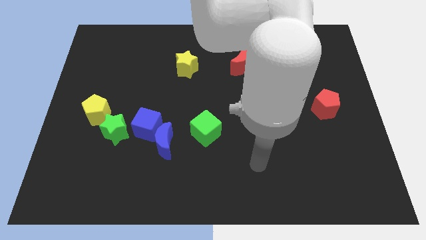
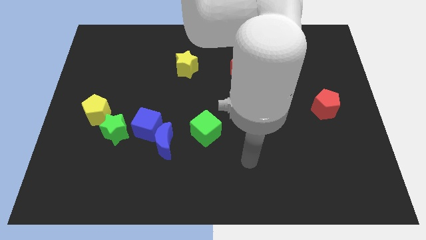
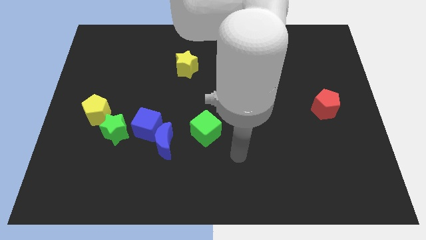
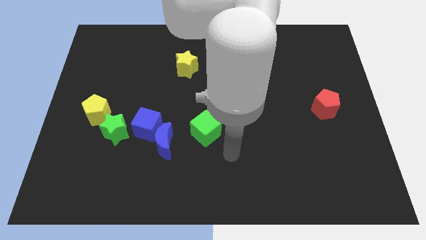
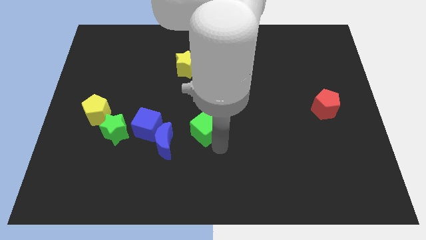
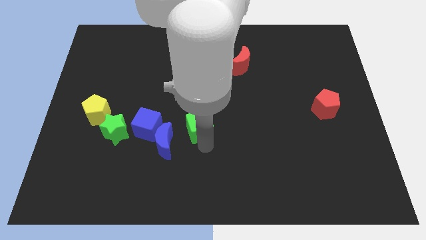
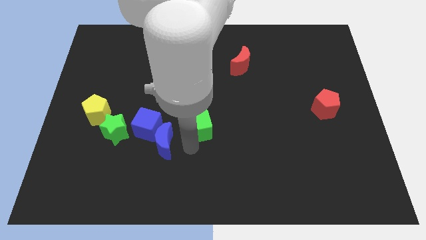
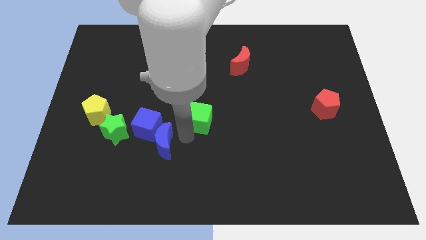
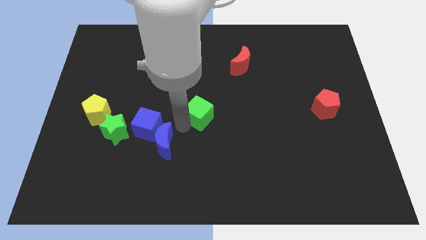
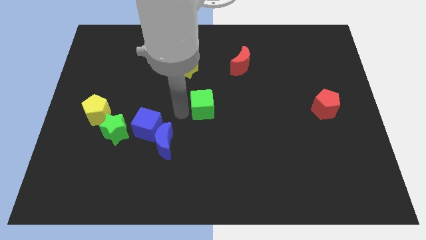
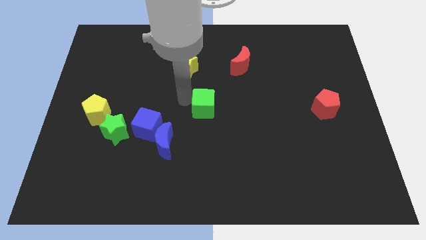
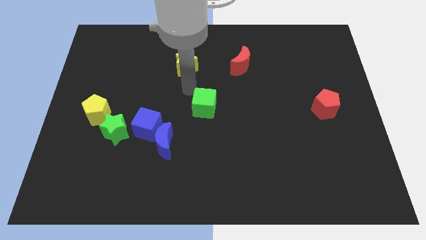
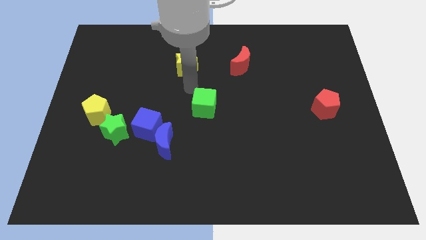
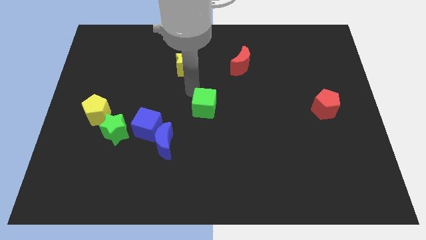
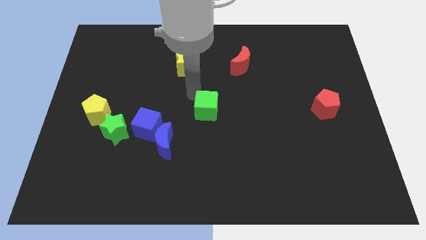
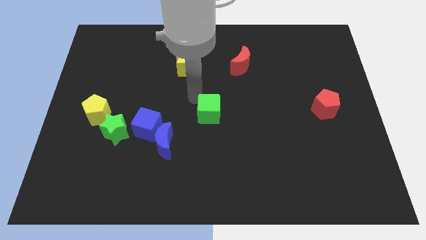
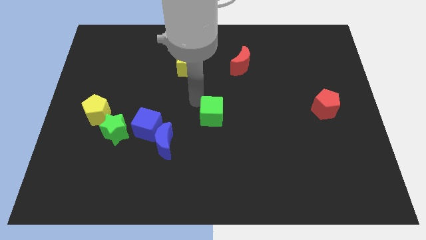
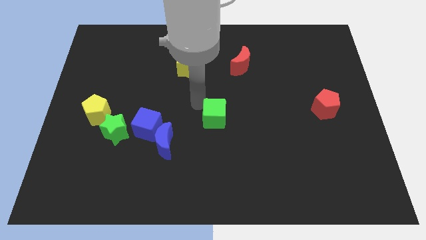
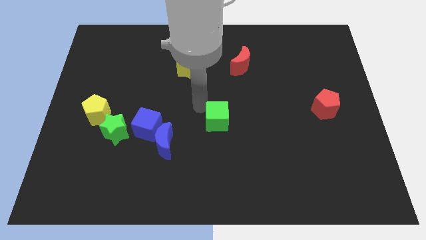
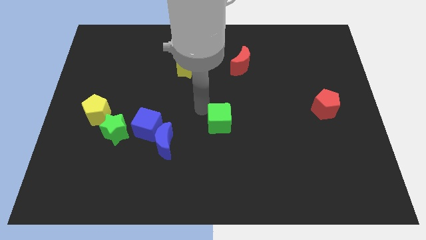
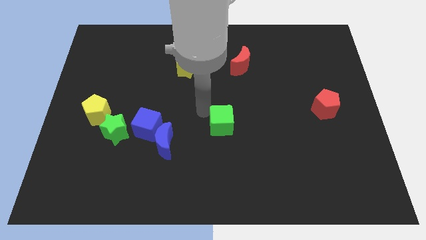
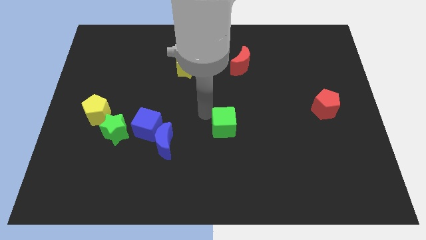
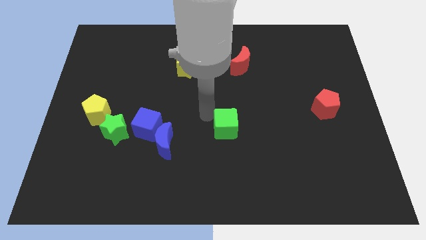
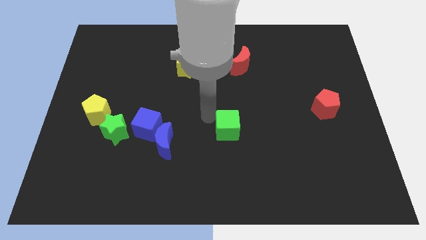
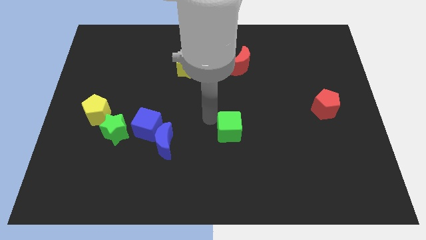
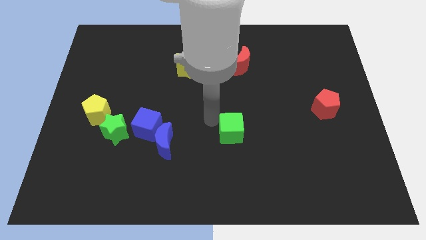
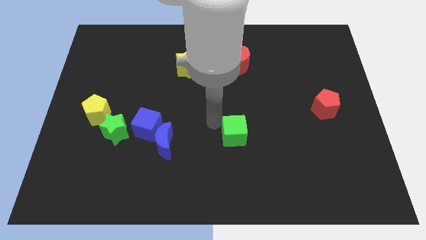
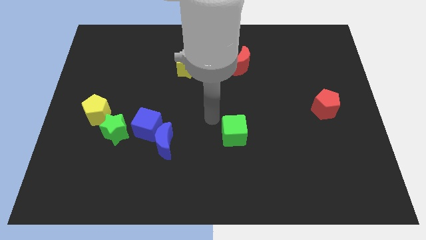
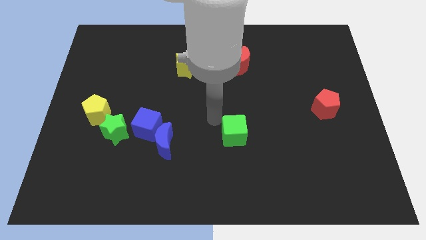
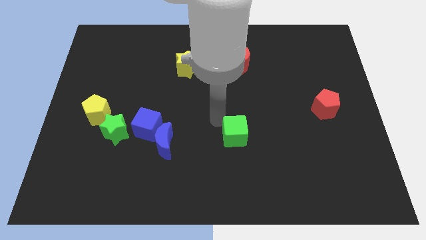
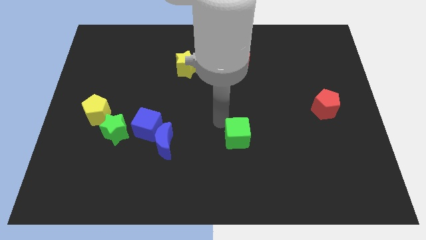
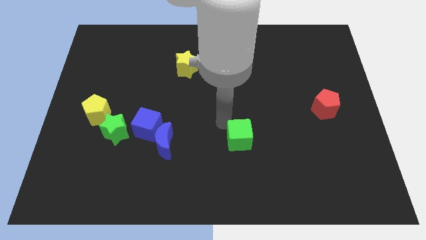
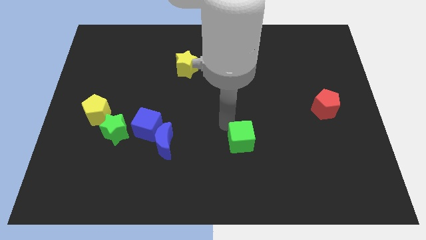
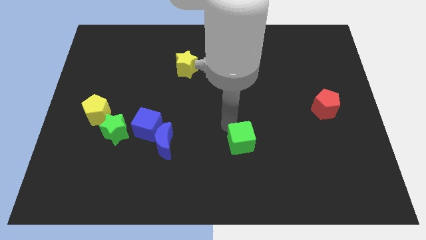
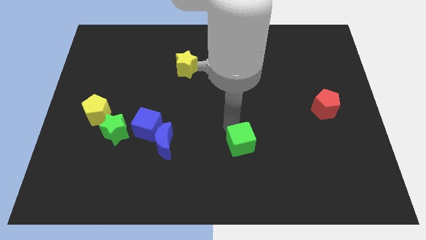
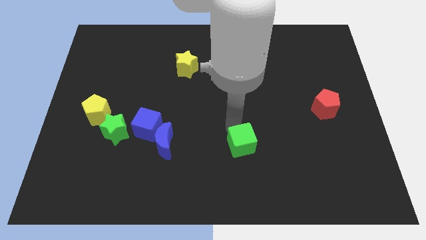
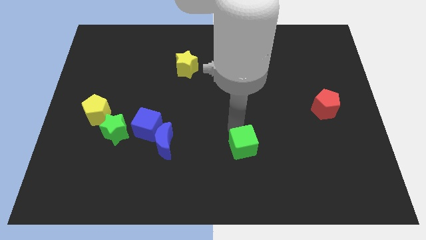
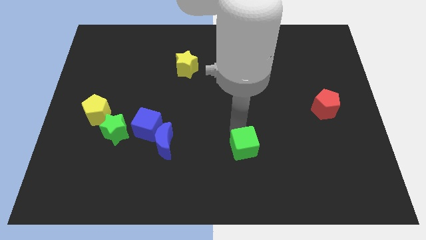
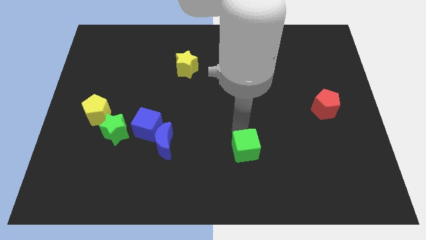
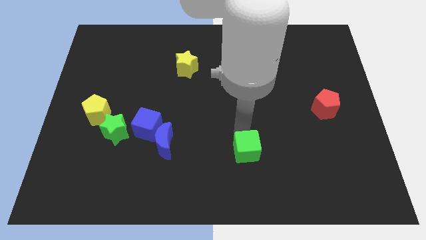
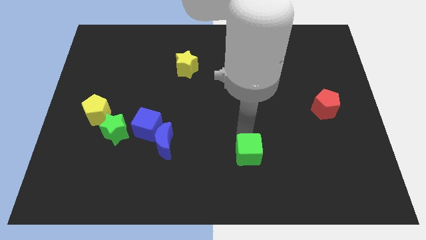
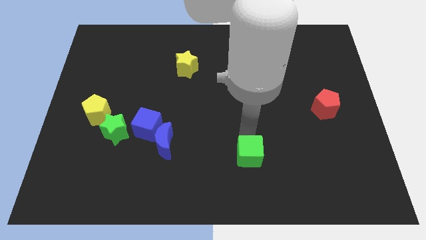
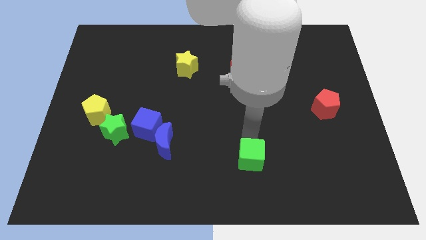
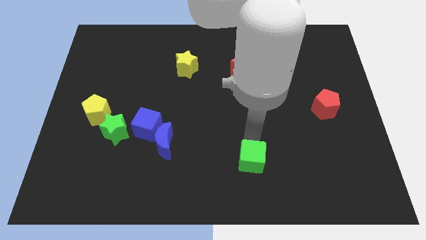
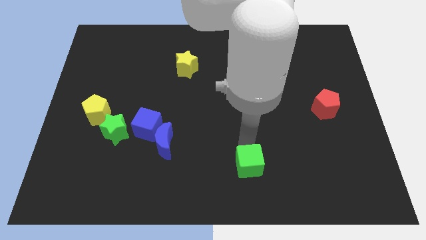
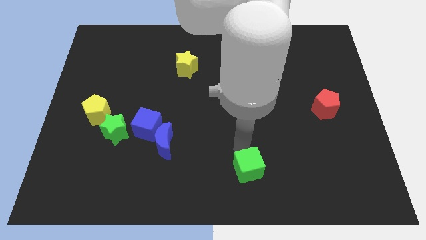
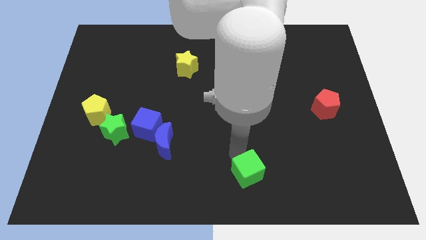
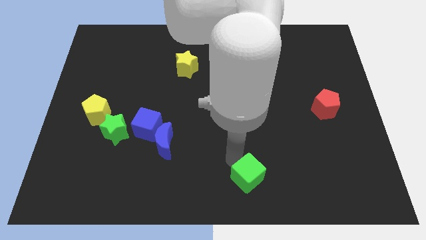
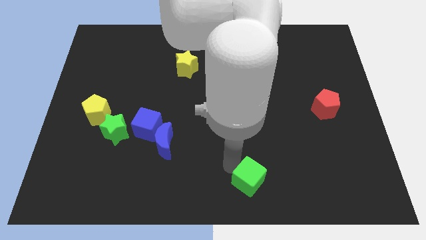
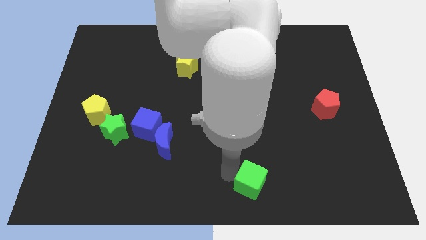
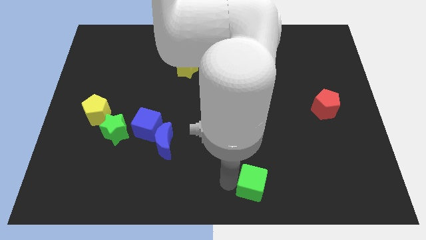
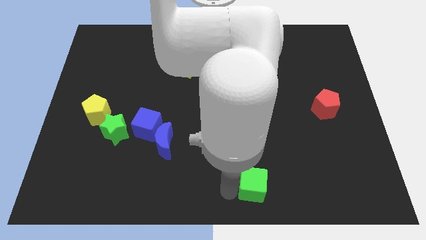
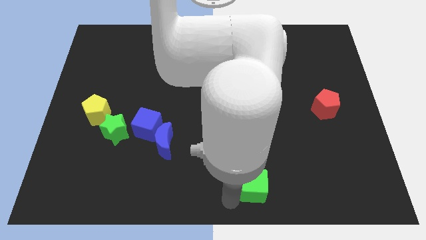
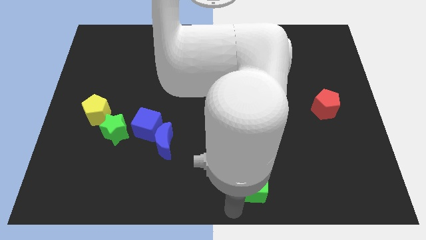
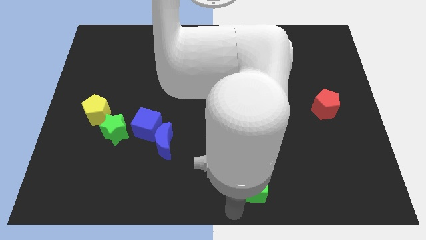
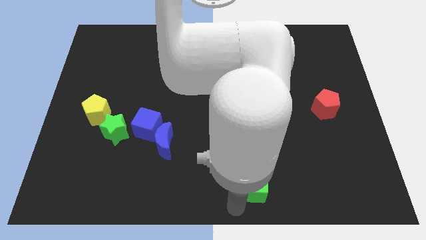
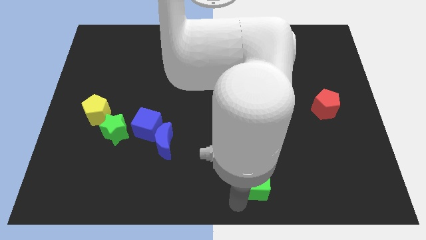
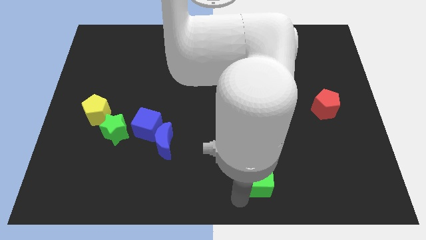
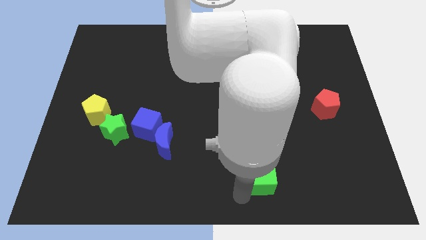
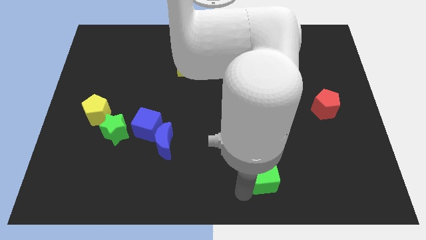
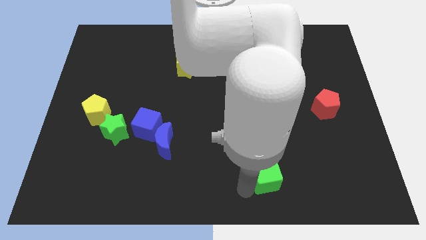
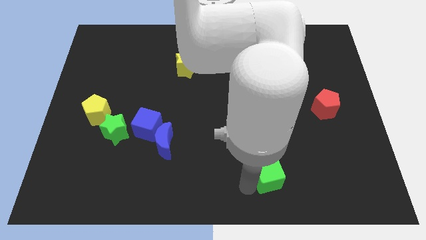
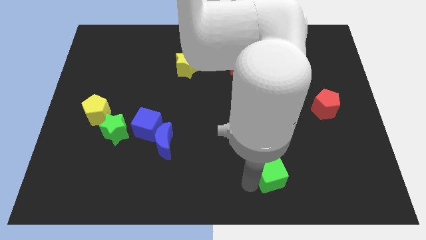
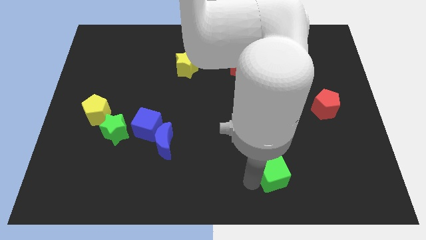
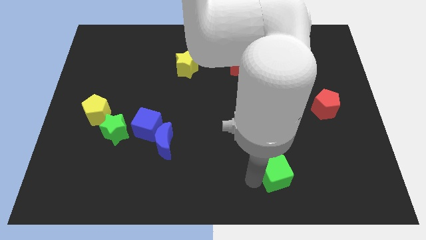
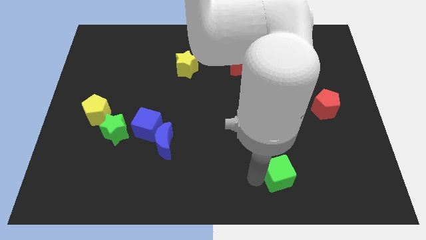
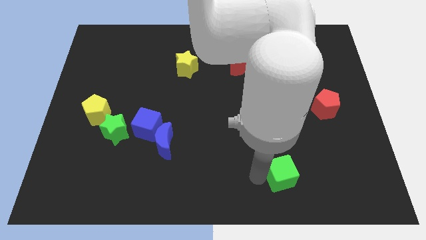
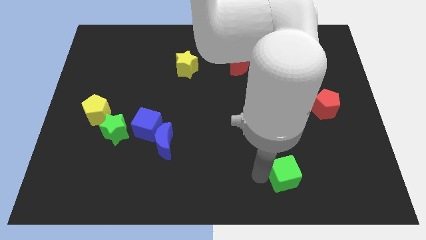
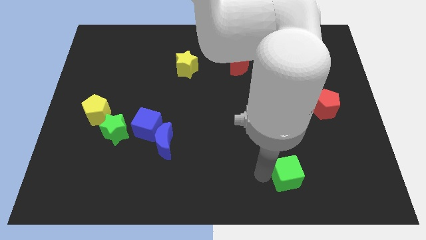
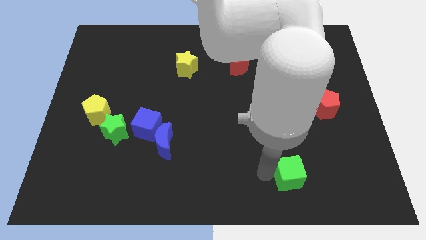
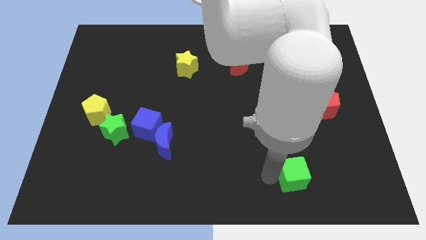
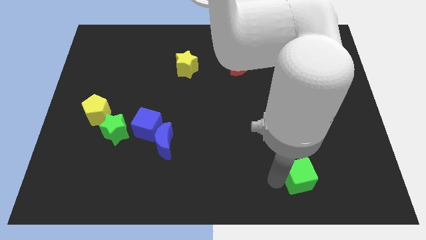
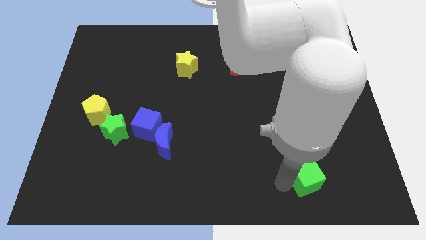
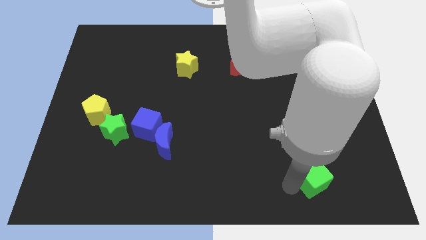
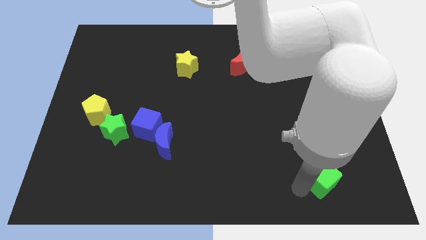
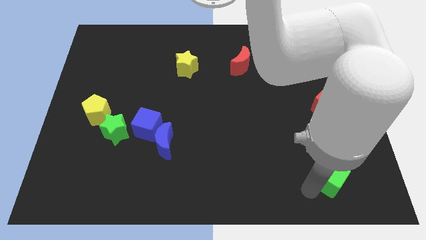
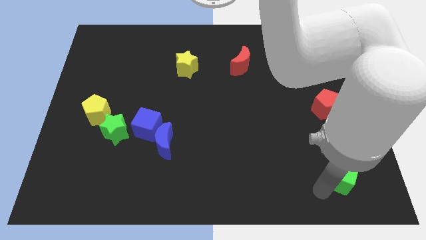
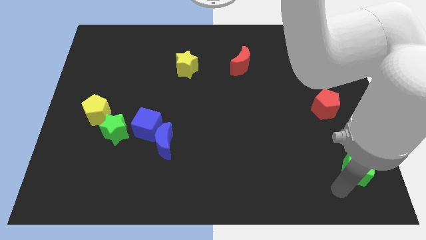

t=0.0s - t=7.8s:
slide the green cube to the bottom right
